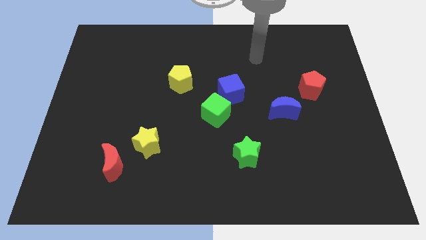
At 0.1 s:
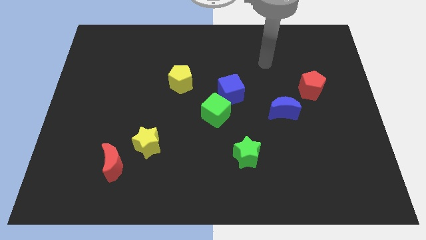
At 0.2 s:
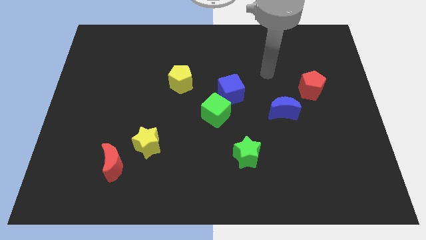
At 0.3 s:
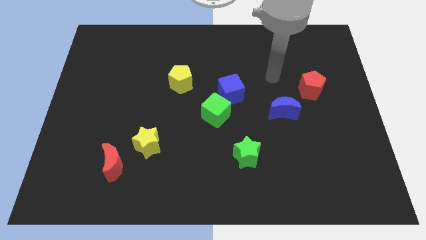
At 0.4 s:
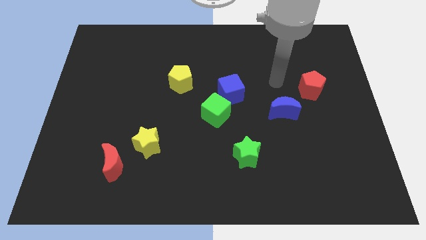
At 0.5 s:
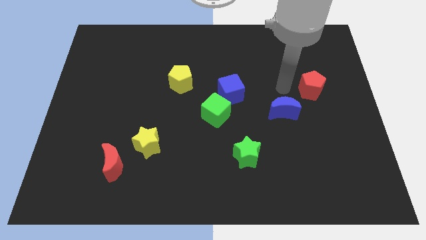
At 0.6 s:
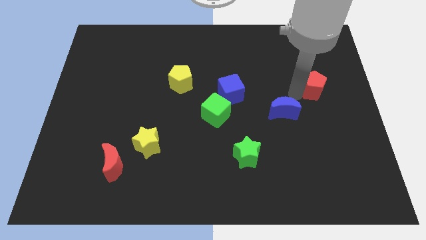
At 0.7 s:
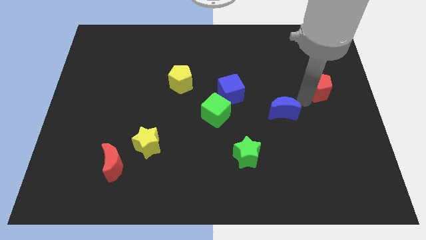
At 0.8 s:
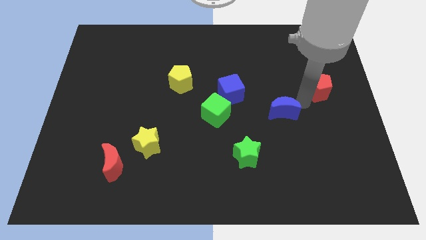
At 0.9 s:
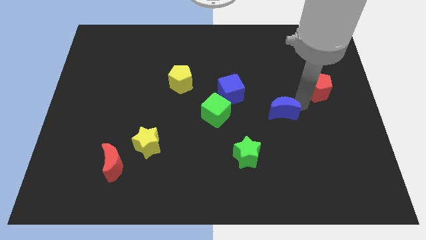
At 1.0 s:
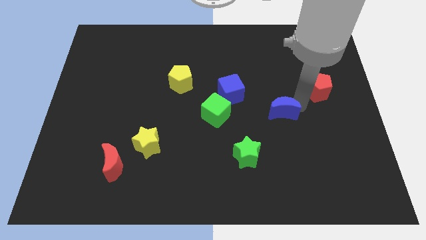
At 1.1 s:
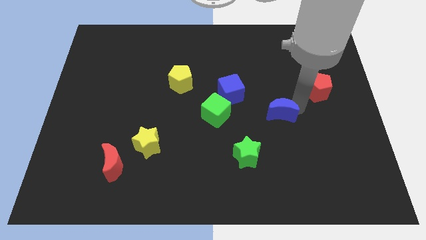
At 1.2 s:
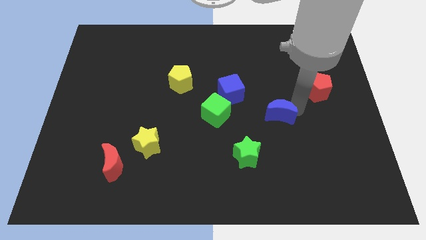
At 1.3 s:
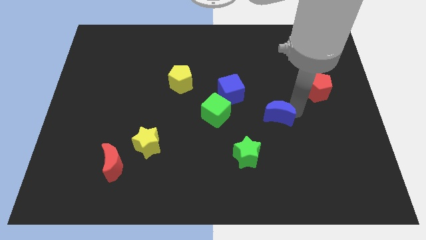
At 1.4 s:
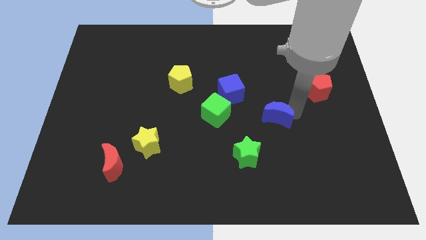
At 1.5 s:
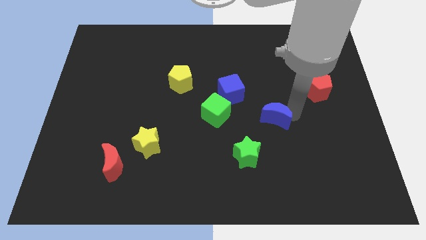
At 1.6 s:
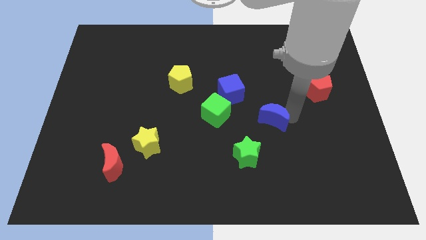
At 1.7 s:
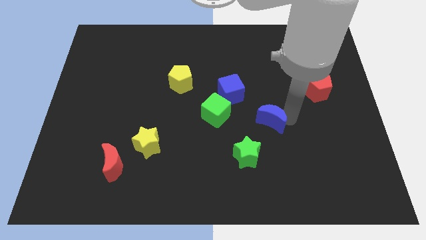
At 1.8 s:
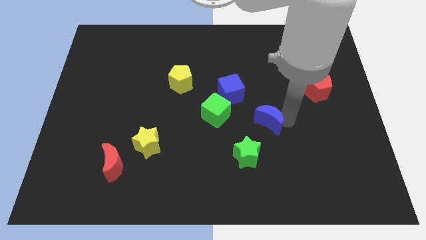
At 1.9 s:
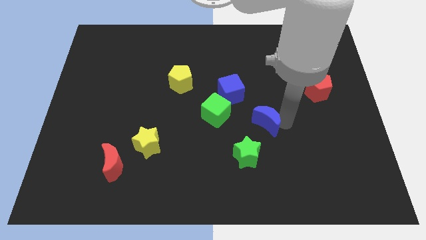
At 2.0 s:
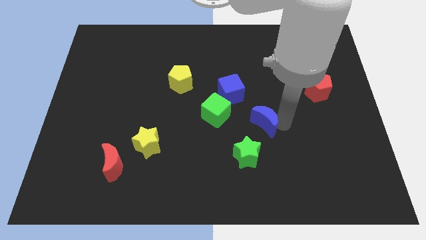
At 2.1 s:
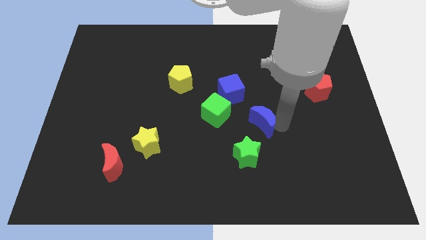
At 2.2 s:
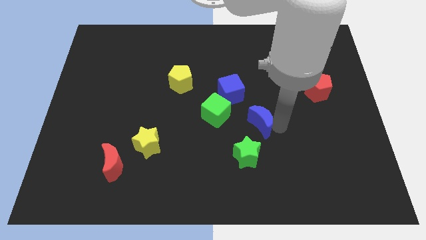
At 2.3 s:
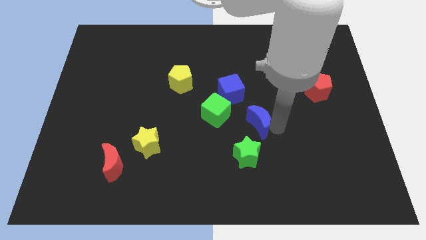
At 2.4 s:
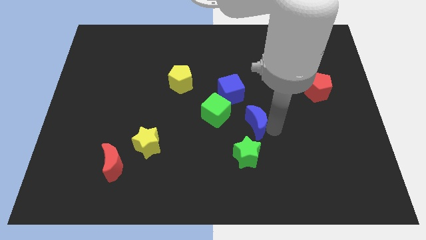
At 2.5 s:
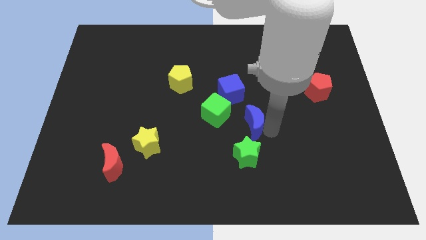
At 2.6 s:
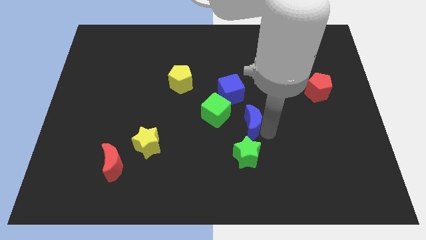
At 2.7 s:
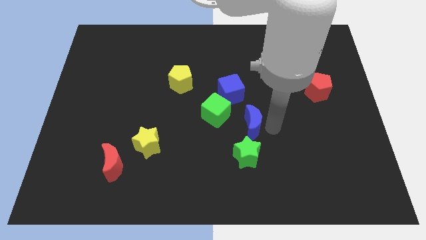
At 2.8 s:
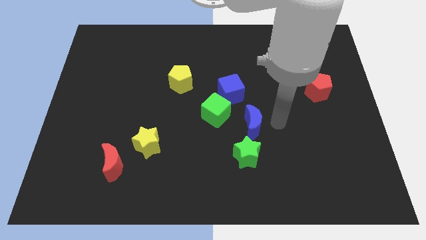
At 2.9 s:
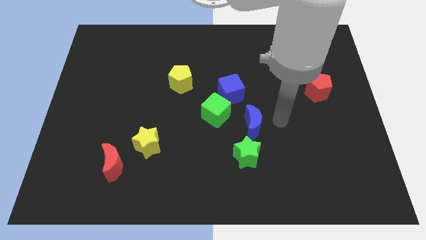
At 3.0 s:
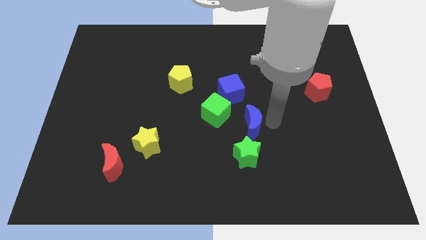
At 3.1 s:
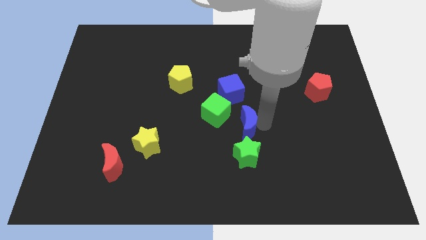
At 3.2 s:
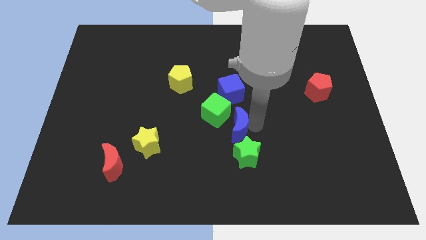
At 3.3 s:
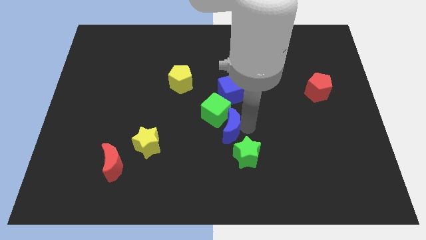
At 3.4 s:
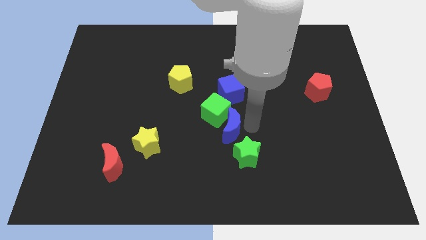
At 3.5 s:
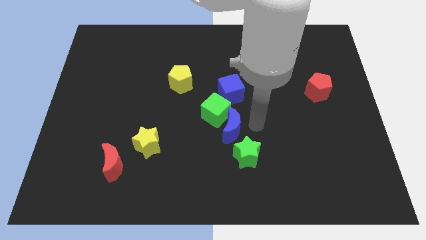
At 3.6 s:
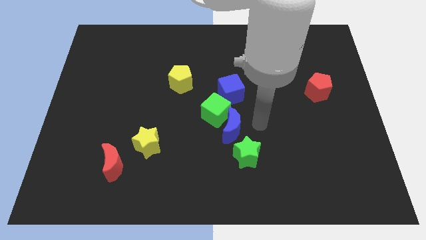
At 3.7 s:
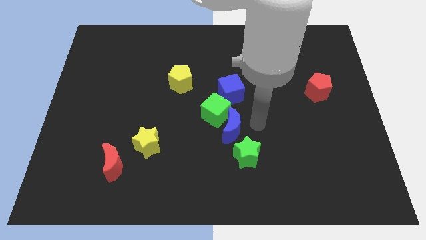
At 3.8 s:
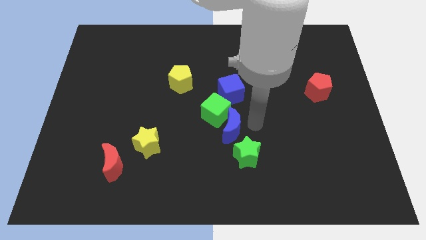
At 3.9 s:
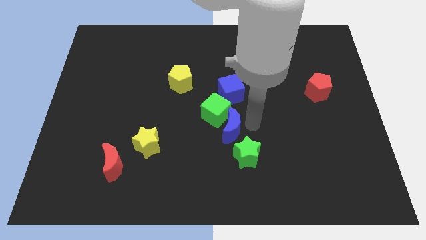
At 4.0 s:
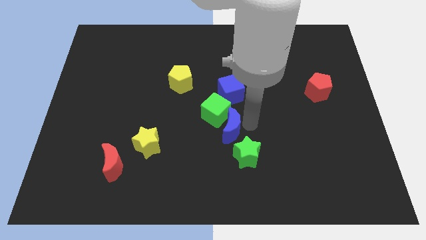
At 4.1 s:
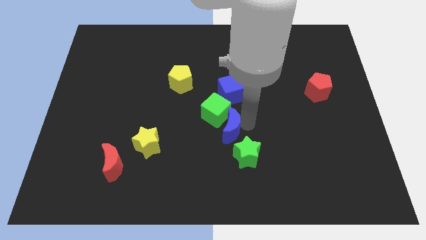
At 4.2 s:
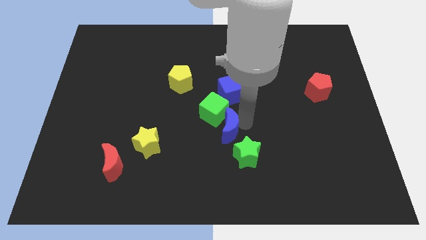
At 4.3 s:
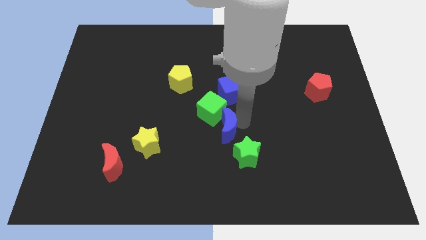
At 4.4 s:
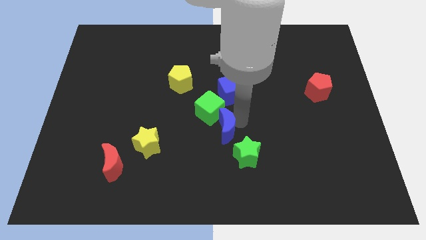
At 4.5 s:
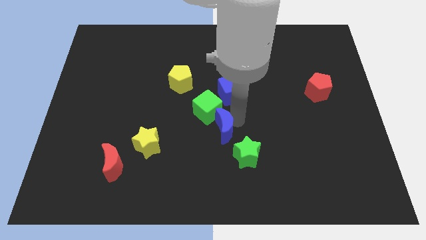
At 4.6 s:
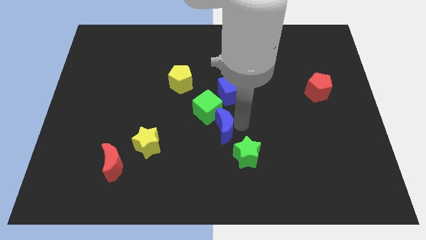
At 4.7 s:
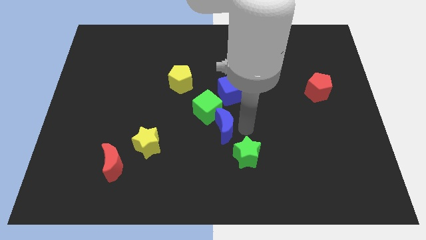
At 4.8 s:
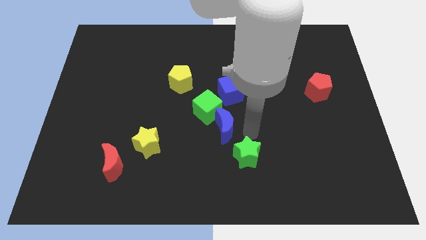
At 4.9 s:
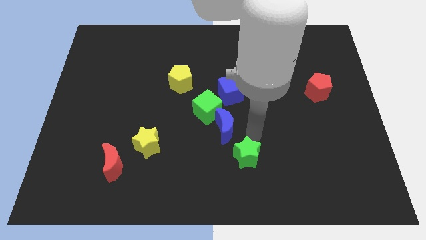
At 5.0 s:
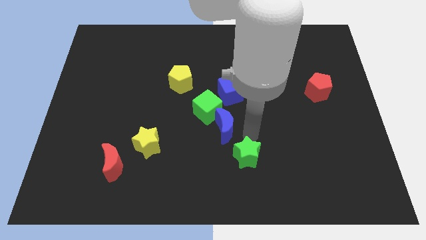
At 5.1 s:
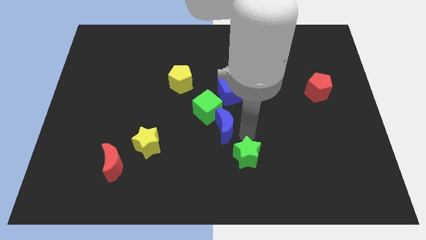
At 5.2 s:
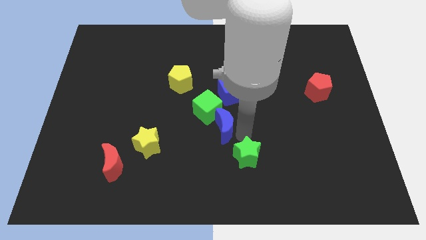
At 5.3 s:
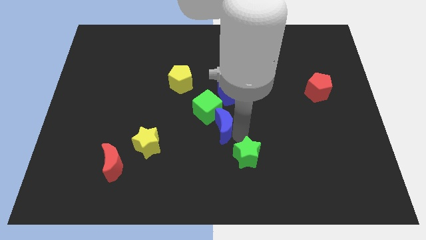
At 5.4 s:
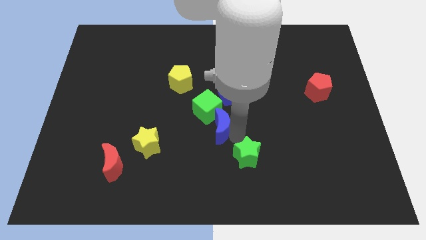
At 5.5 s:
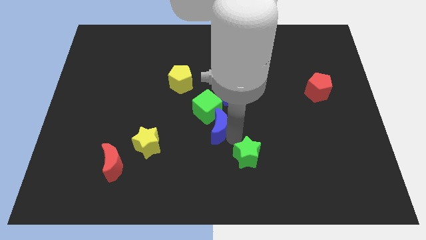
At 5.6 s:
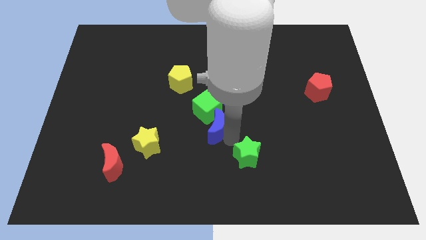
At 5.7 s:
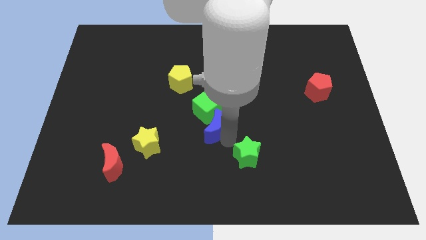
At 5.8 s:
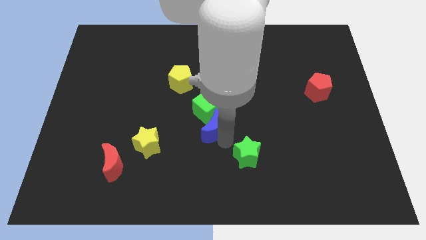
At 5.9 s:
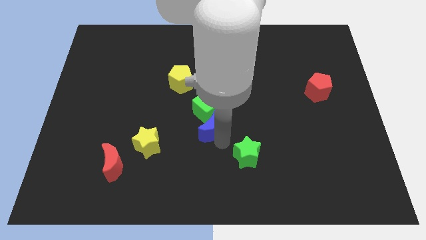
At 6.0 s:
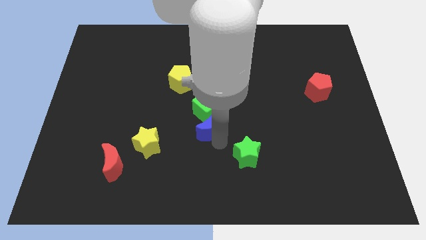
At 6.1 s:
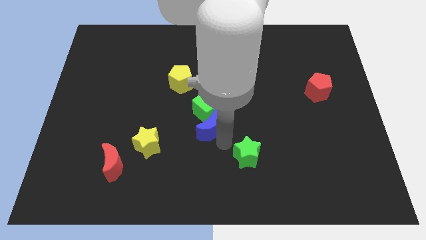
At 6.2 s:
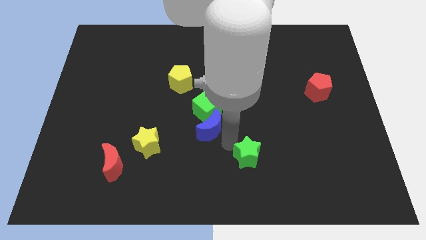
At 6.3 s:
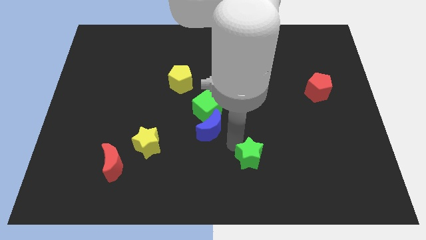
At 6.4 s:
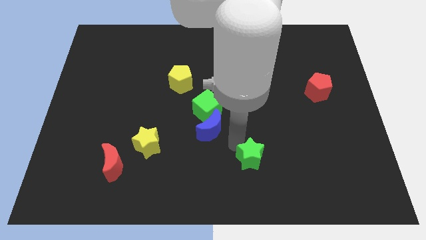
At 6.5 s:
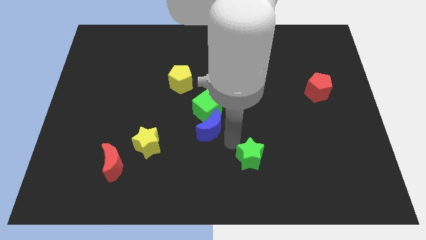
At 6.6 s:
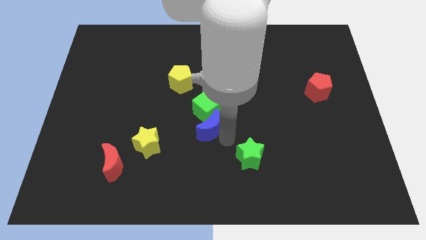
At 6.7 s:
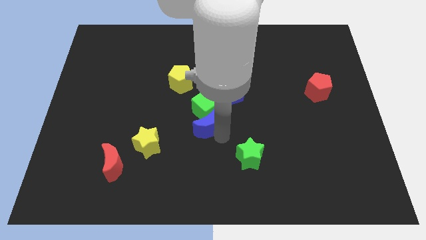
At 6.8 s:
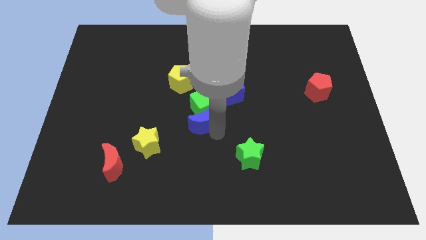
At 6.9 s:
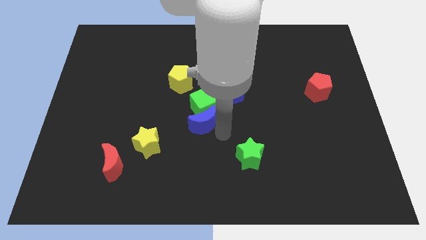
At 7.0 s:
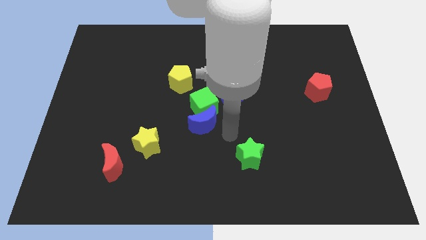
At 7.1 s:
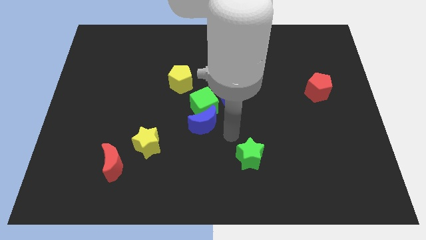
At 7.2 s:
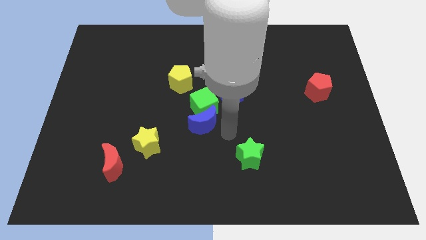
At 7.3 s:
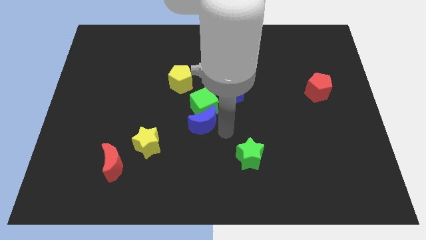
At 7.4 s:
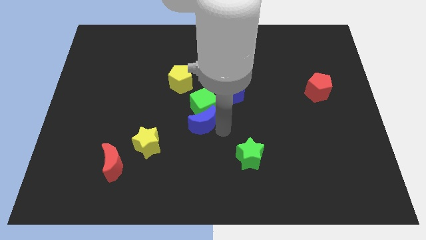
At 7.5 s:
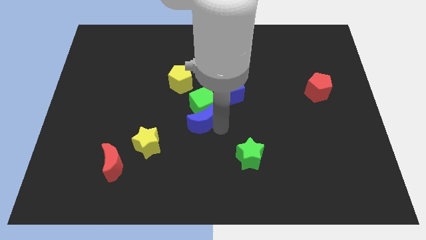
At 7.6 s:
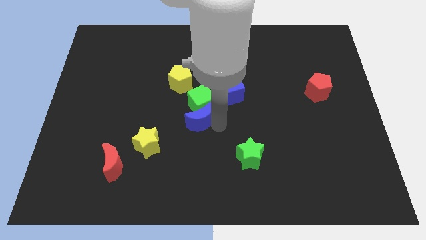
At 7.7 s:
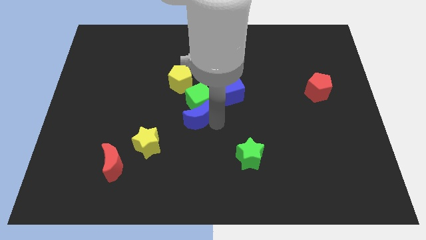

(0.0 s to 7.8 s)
push the blue moon to the bottom of the yellow pentagon
